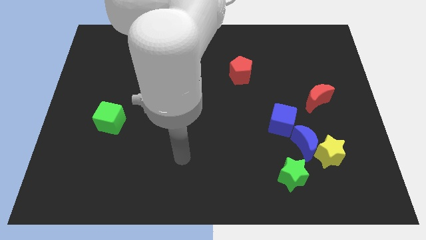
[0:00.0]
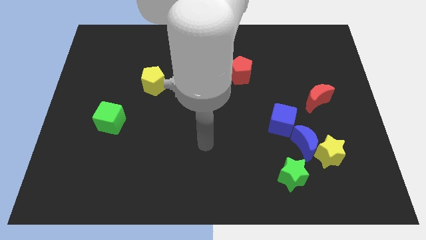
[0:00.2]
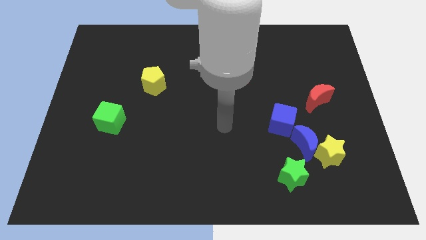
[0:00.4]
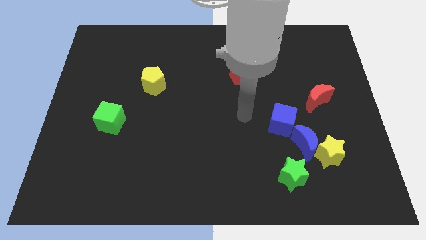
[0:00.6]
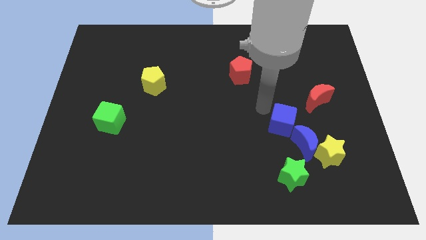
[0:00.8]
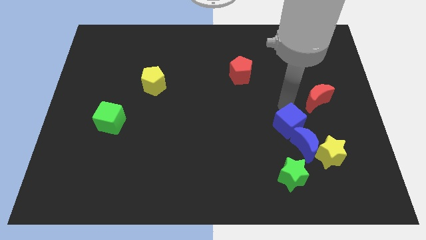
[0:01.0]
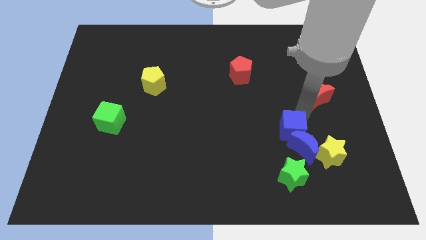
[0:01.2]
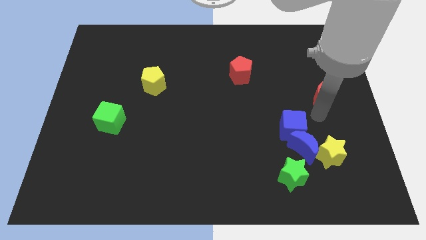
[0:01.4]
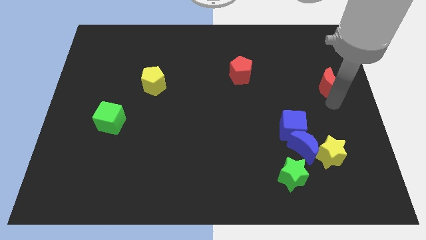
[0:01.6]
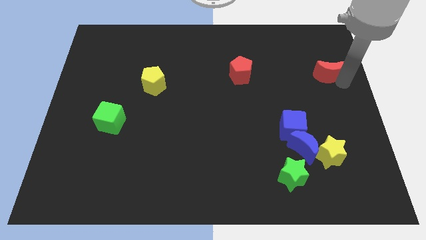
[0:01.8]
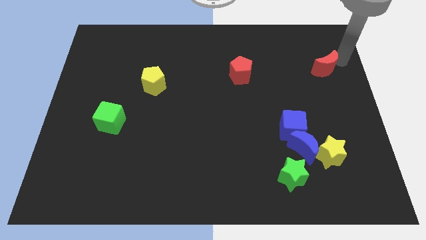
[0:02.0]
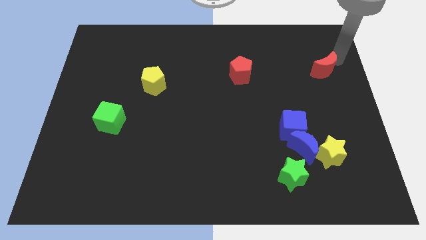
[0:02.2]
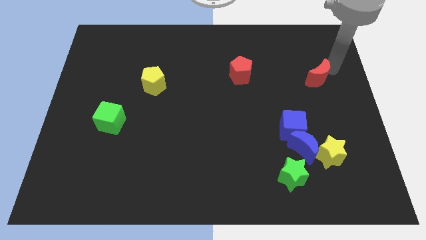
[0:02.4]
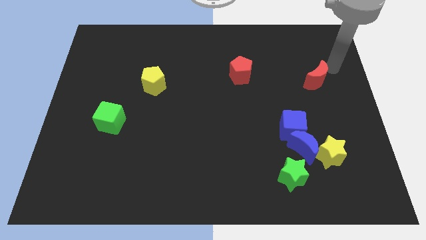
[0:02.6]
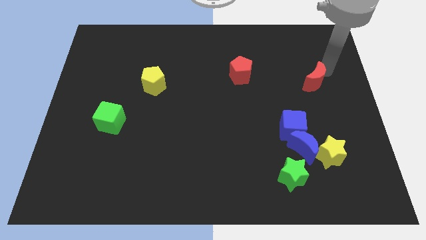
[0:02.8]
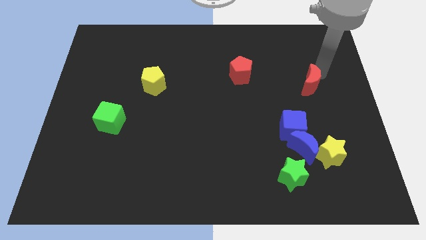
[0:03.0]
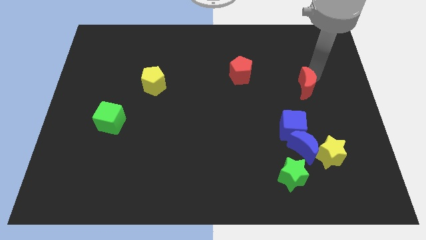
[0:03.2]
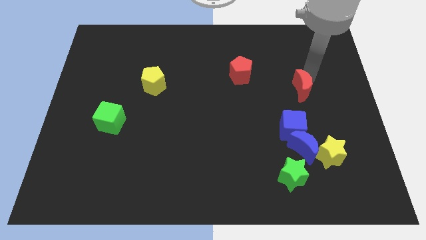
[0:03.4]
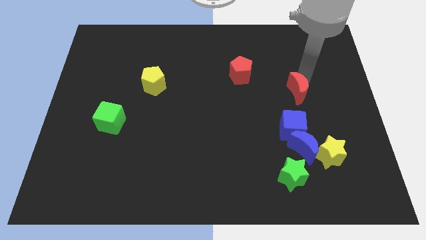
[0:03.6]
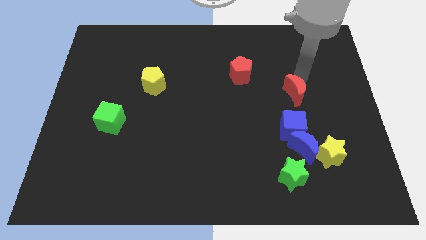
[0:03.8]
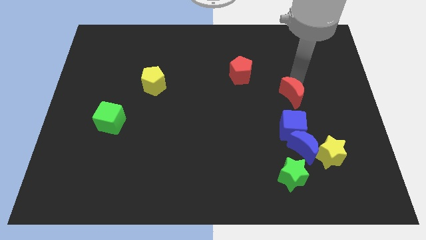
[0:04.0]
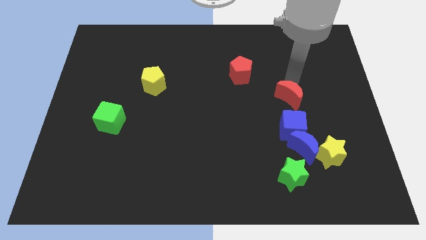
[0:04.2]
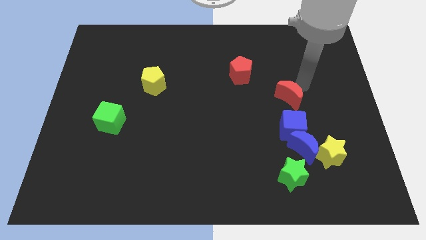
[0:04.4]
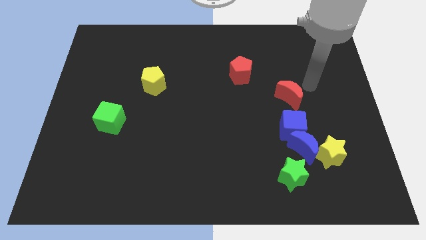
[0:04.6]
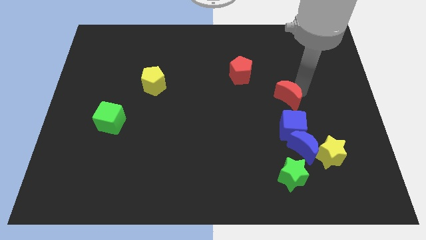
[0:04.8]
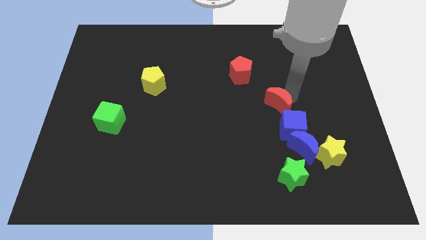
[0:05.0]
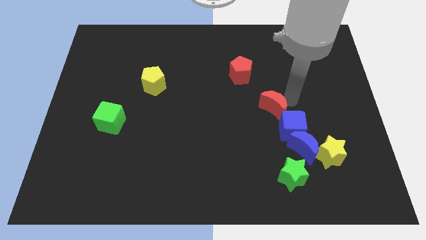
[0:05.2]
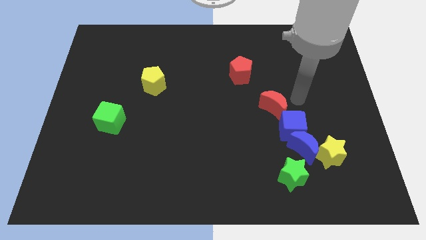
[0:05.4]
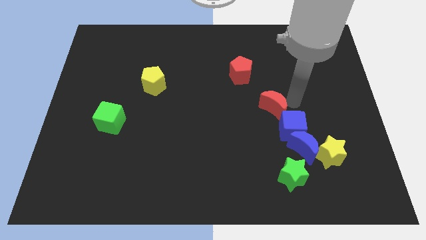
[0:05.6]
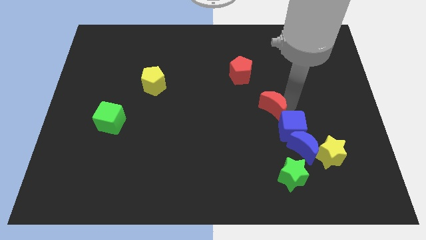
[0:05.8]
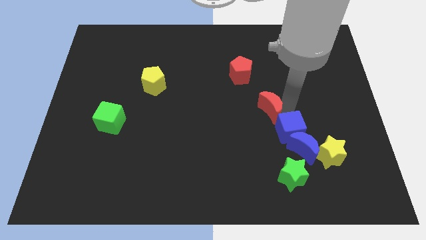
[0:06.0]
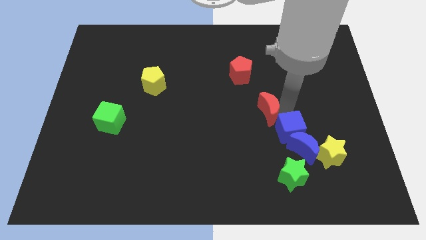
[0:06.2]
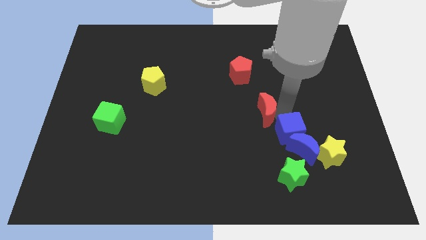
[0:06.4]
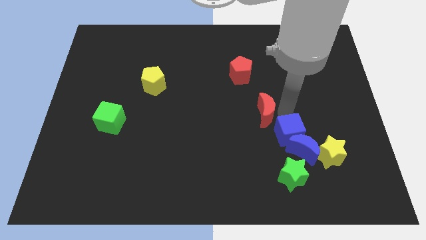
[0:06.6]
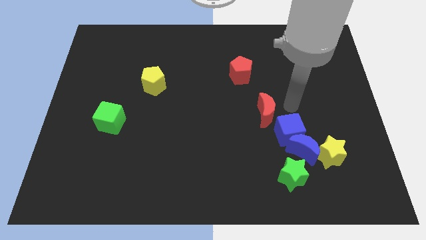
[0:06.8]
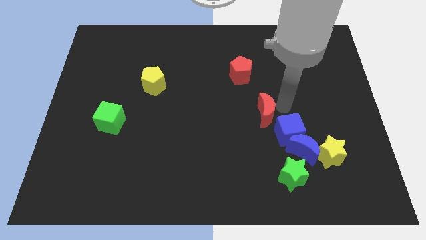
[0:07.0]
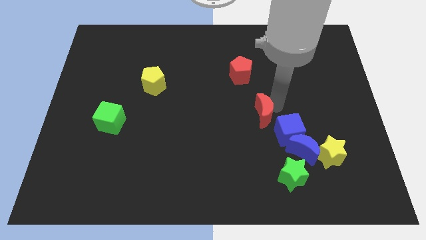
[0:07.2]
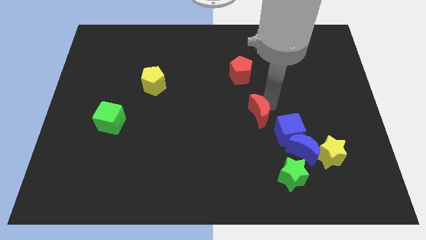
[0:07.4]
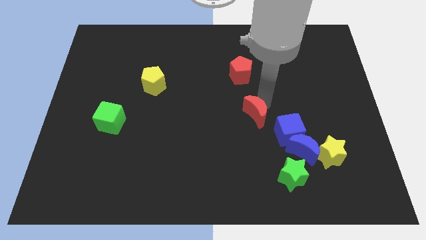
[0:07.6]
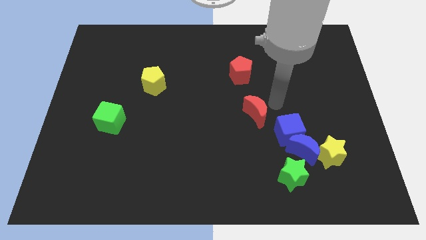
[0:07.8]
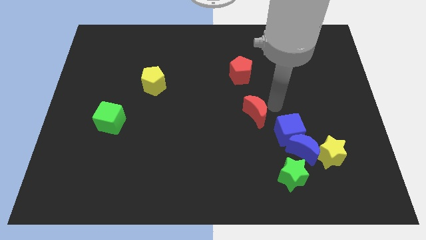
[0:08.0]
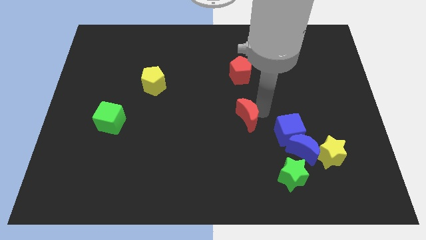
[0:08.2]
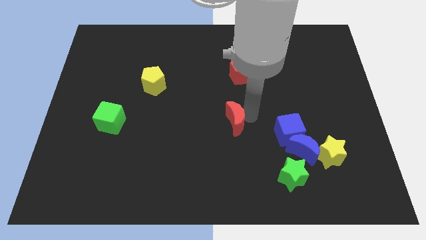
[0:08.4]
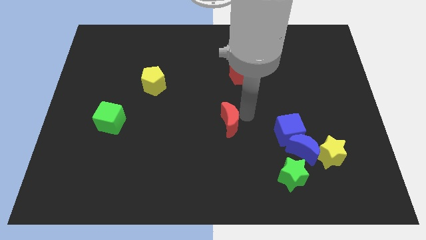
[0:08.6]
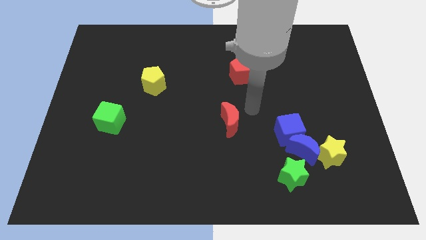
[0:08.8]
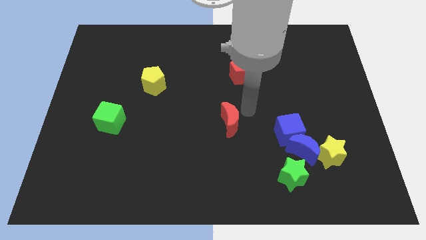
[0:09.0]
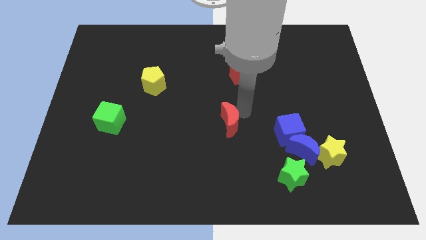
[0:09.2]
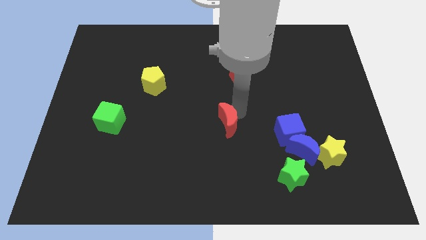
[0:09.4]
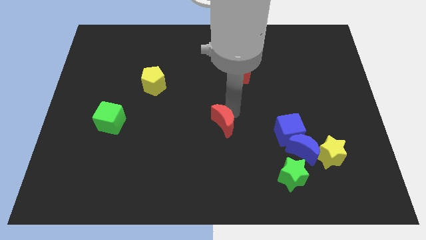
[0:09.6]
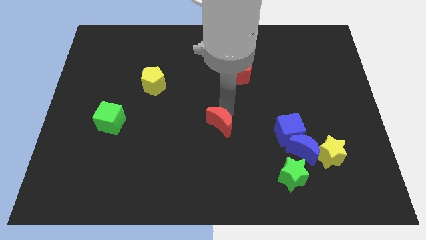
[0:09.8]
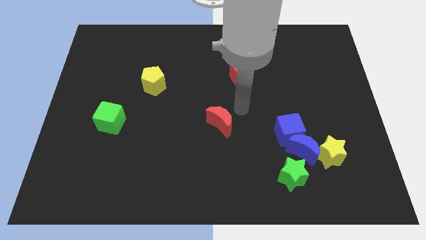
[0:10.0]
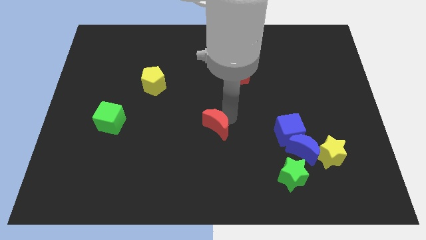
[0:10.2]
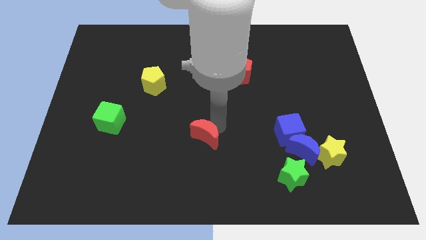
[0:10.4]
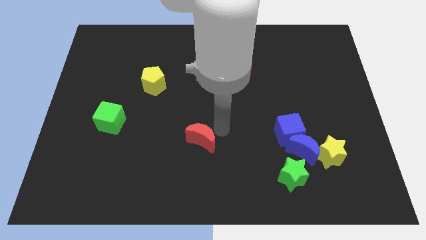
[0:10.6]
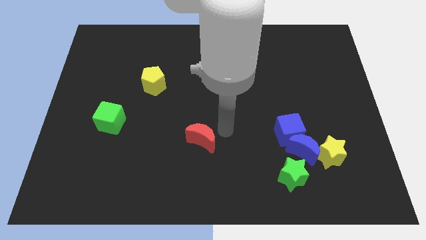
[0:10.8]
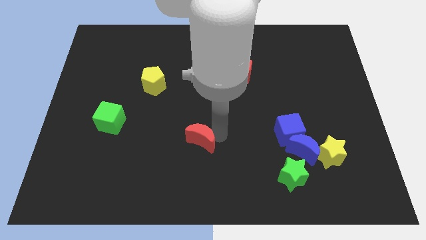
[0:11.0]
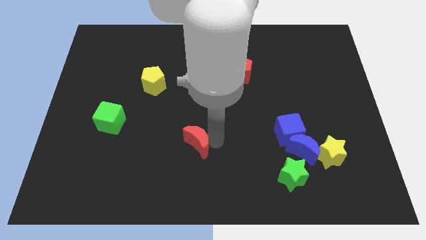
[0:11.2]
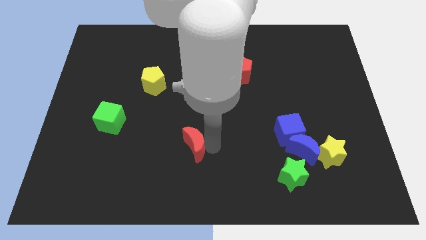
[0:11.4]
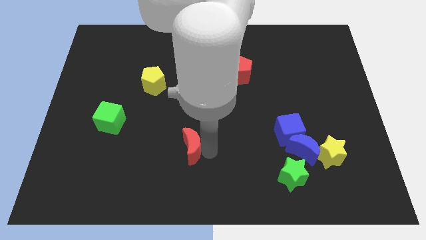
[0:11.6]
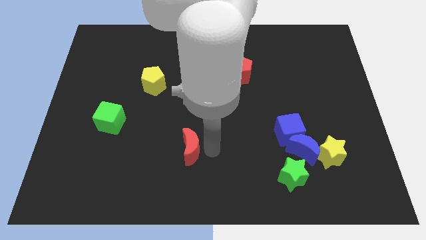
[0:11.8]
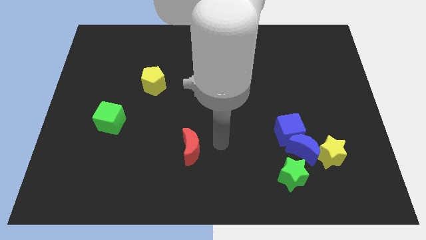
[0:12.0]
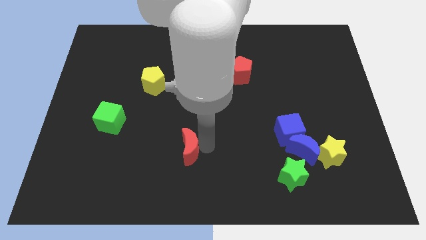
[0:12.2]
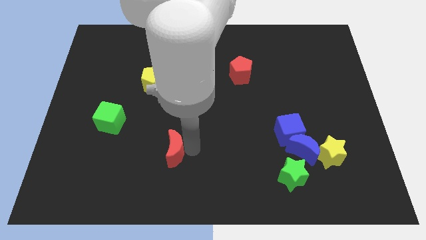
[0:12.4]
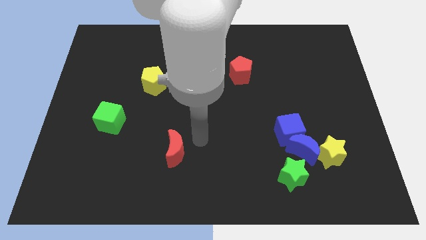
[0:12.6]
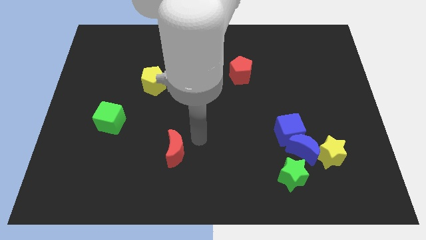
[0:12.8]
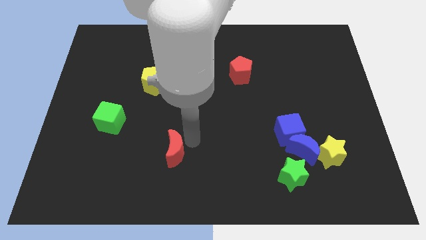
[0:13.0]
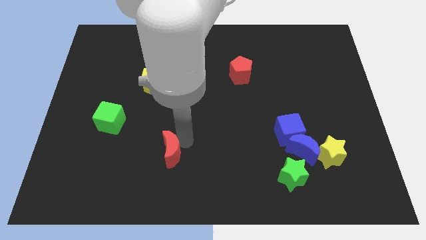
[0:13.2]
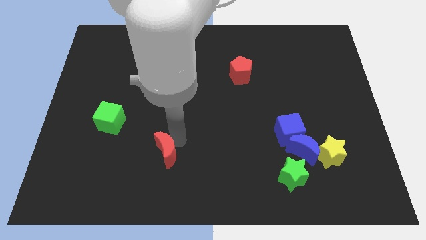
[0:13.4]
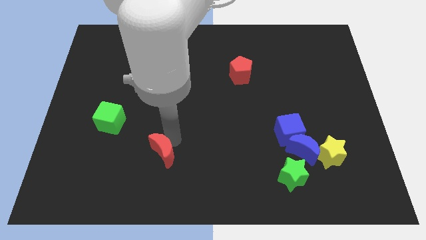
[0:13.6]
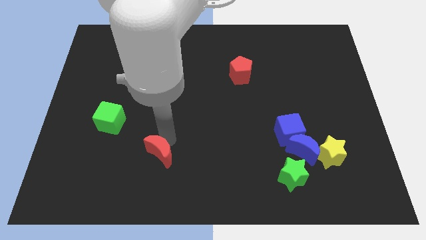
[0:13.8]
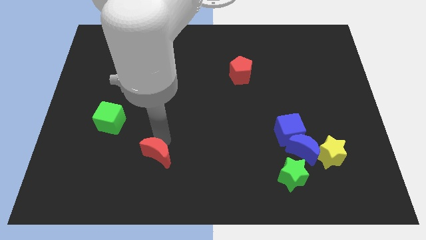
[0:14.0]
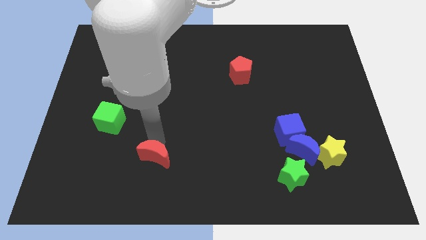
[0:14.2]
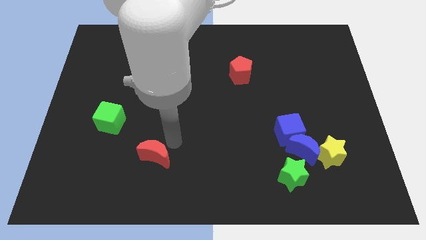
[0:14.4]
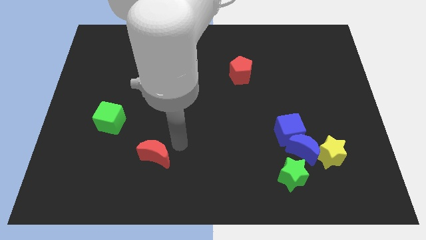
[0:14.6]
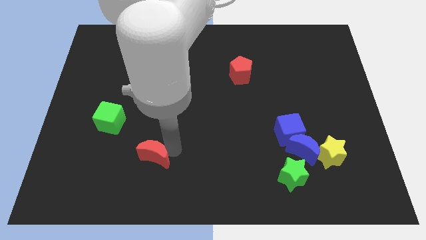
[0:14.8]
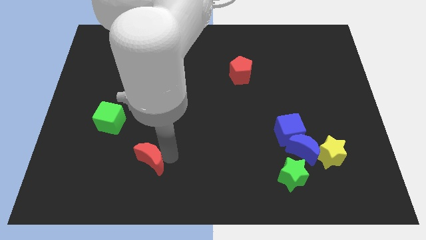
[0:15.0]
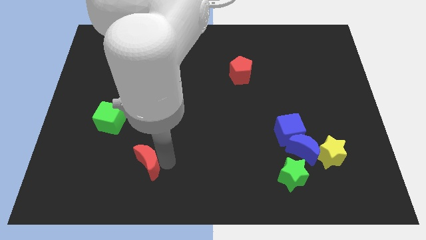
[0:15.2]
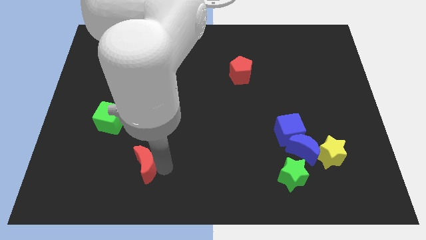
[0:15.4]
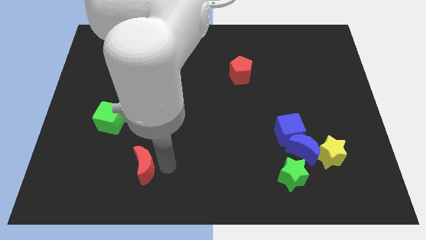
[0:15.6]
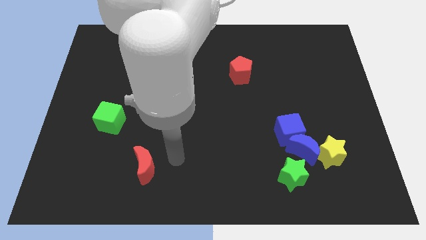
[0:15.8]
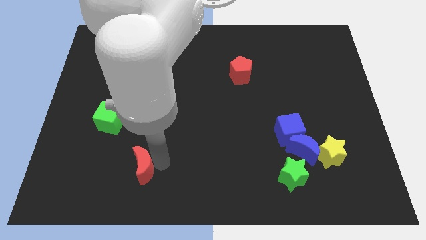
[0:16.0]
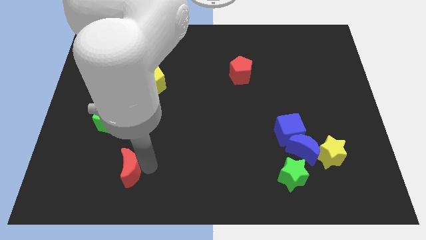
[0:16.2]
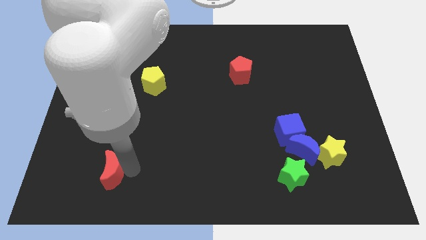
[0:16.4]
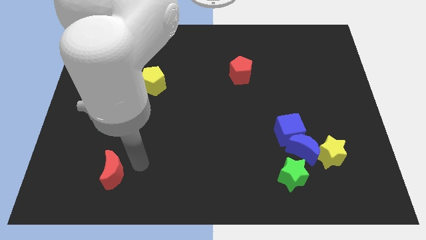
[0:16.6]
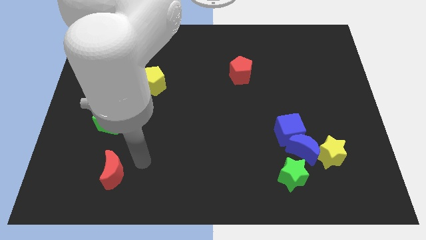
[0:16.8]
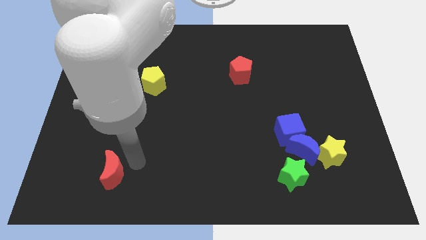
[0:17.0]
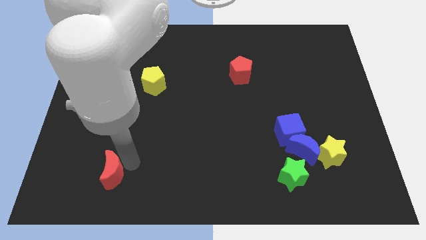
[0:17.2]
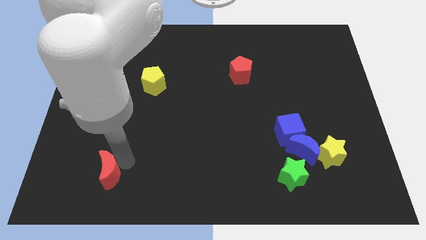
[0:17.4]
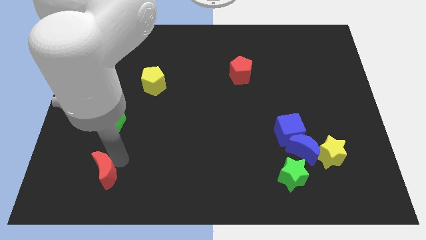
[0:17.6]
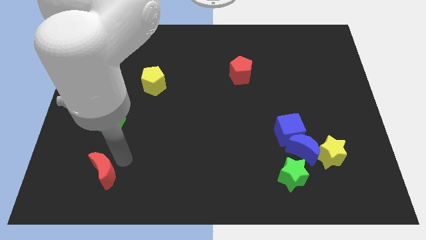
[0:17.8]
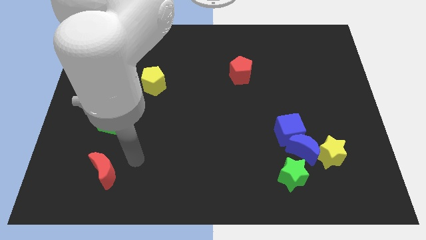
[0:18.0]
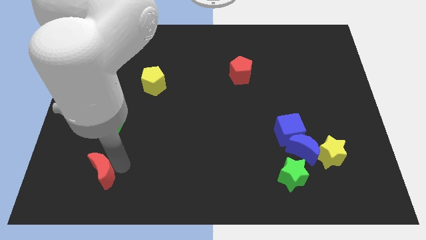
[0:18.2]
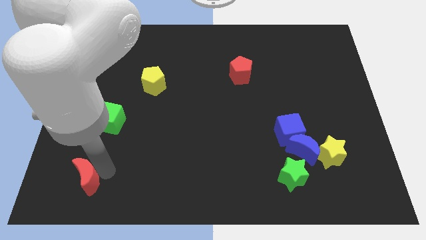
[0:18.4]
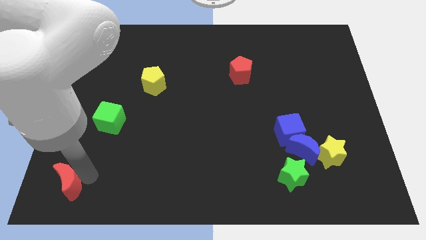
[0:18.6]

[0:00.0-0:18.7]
put the red moon to the bottom left
